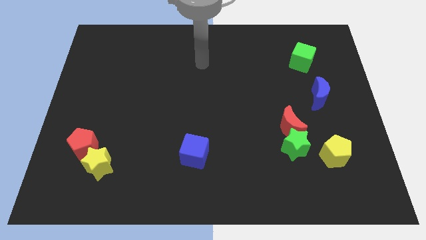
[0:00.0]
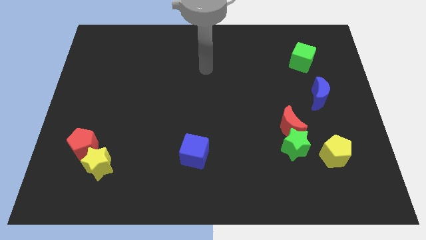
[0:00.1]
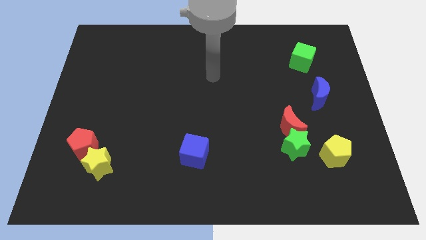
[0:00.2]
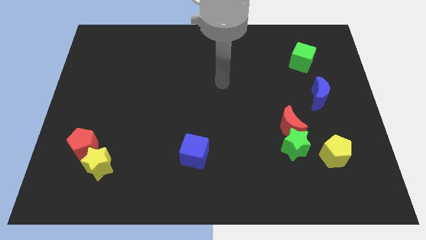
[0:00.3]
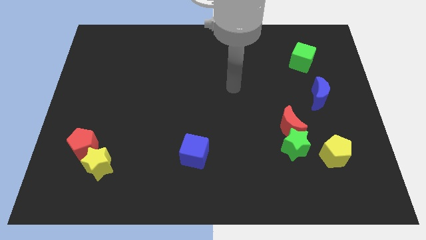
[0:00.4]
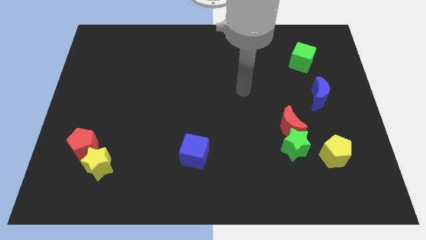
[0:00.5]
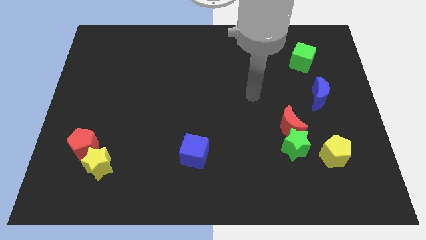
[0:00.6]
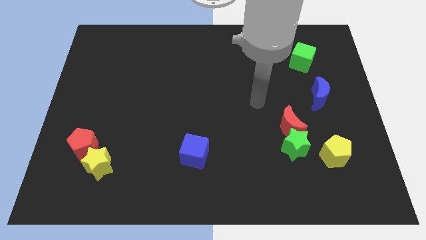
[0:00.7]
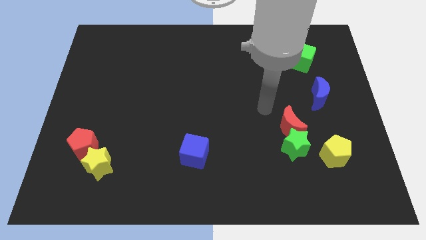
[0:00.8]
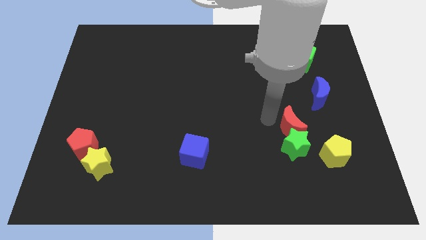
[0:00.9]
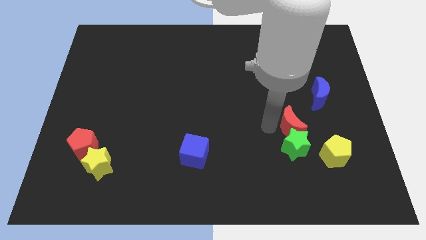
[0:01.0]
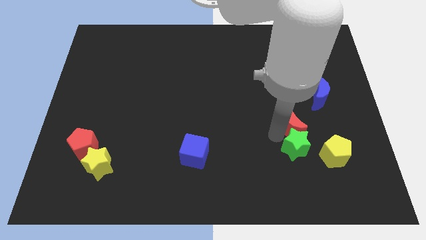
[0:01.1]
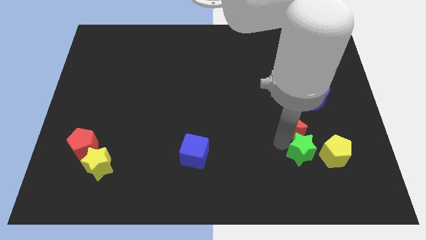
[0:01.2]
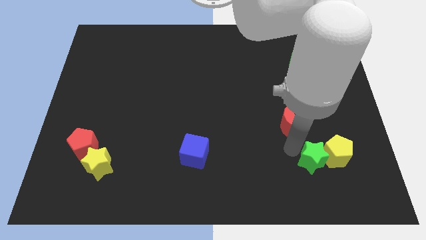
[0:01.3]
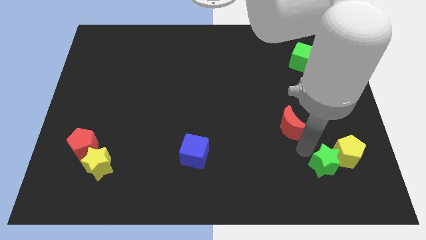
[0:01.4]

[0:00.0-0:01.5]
move the red moon away from the green star

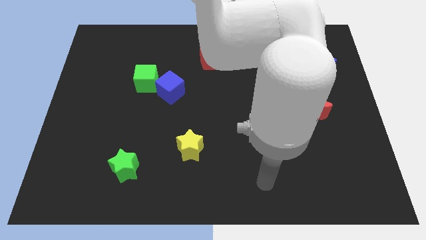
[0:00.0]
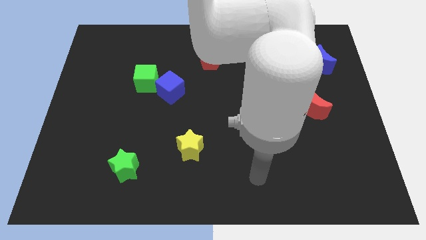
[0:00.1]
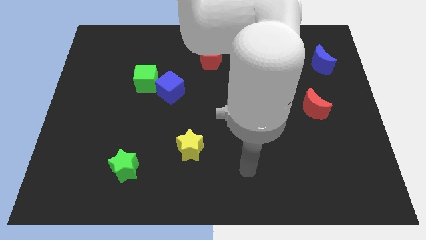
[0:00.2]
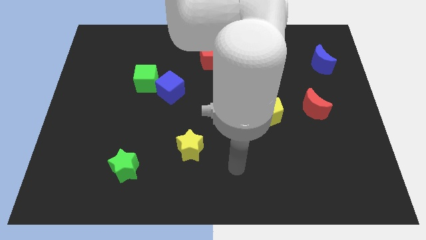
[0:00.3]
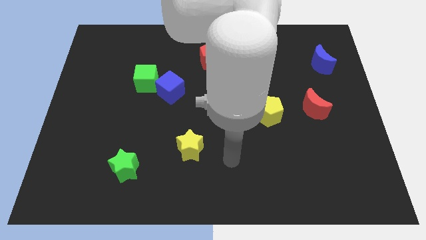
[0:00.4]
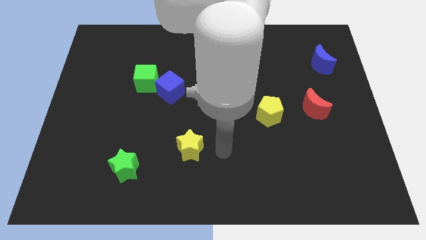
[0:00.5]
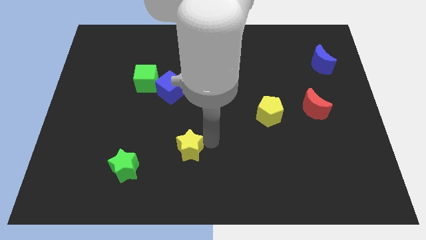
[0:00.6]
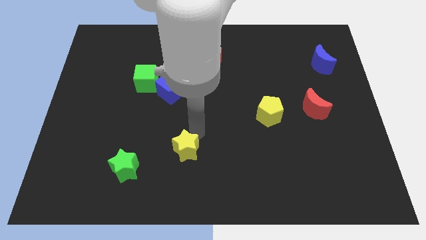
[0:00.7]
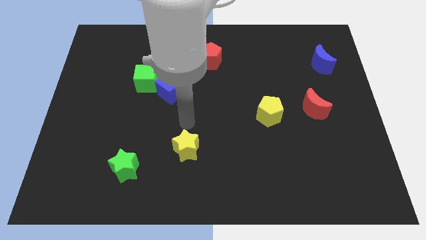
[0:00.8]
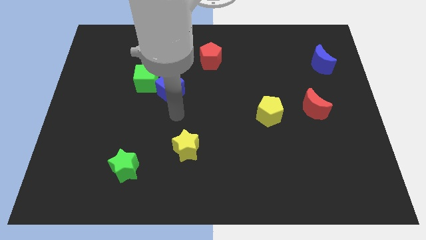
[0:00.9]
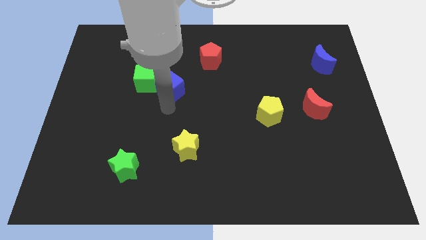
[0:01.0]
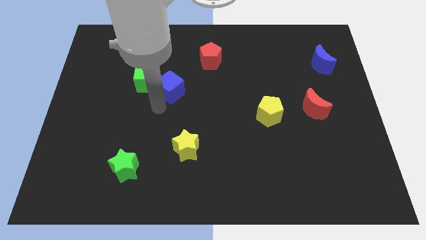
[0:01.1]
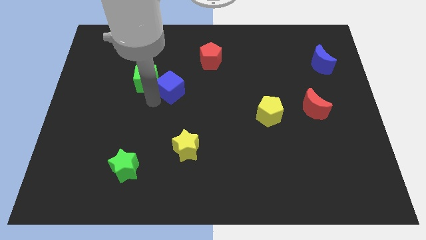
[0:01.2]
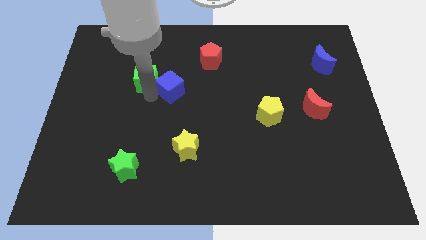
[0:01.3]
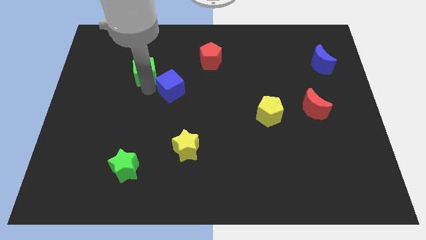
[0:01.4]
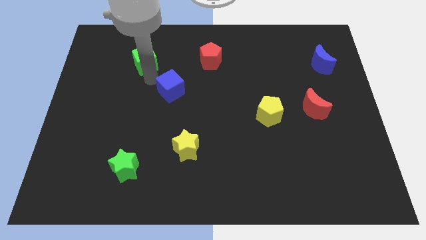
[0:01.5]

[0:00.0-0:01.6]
pull the blue cube apart from the green cube

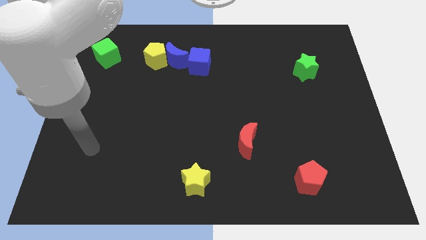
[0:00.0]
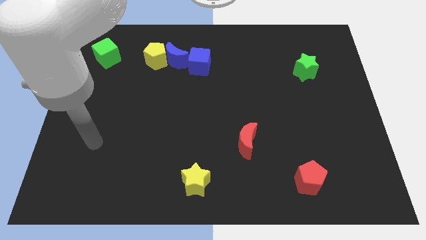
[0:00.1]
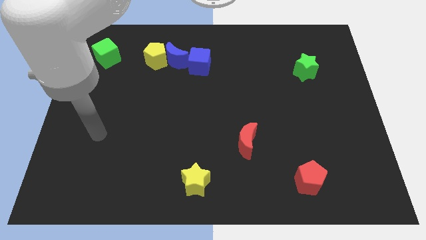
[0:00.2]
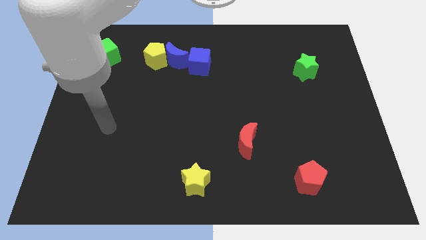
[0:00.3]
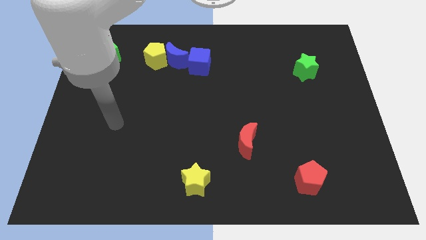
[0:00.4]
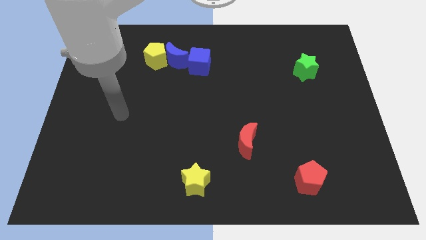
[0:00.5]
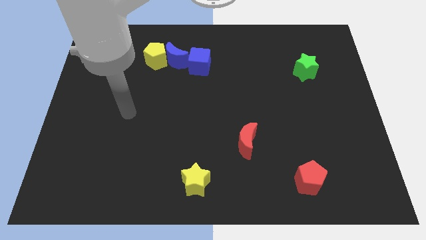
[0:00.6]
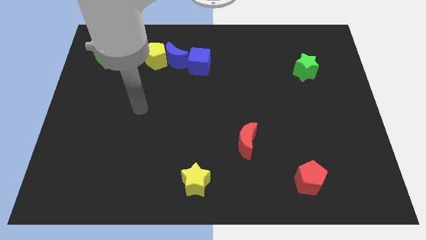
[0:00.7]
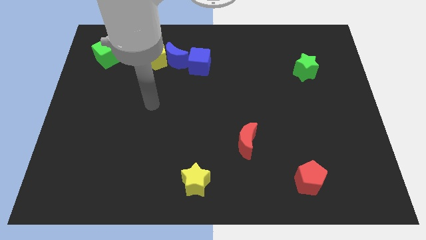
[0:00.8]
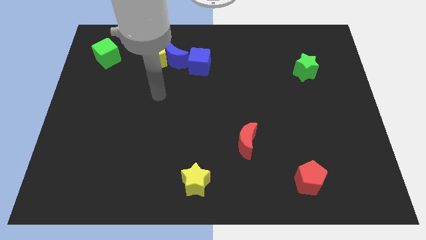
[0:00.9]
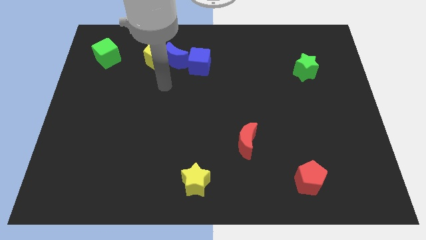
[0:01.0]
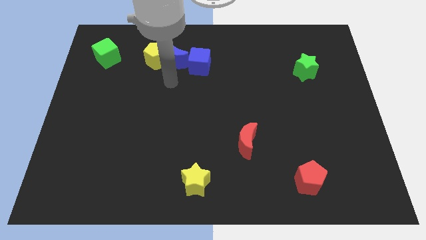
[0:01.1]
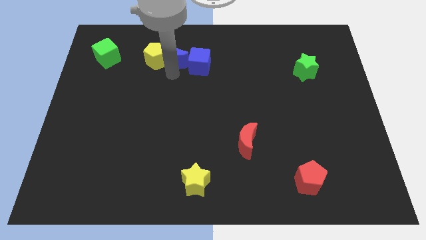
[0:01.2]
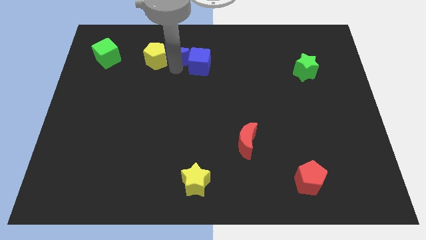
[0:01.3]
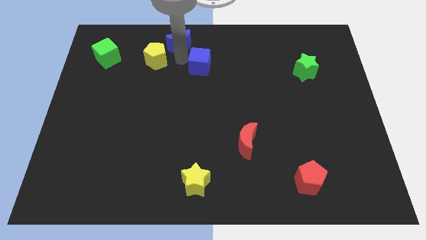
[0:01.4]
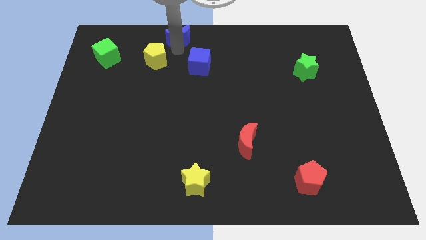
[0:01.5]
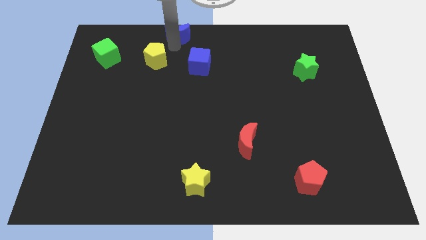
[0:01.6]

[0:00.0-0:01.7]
separate the yellow pentagon from the blue moon

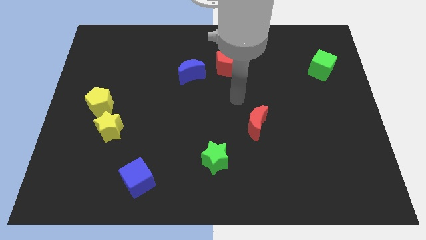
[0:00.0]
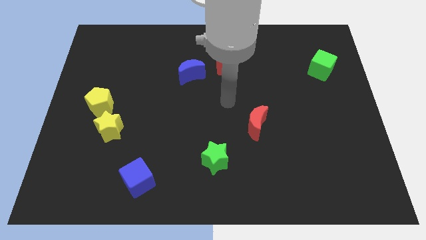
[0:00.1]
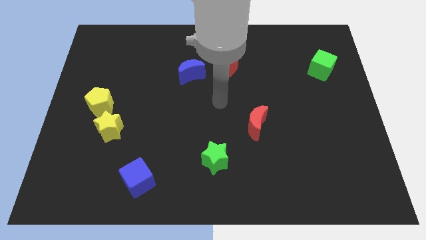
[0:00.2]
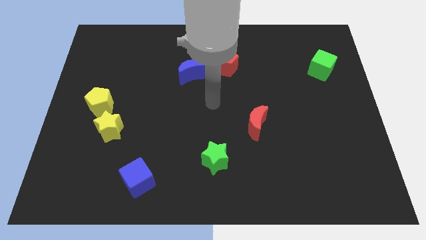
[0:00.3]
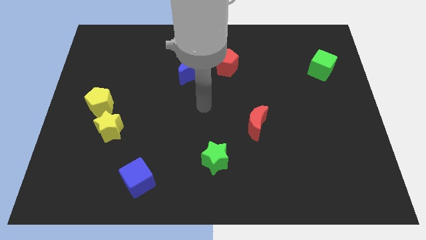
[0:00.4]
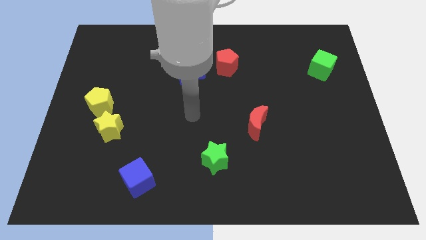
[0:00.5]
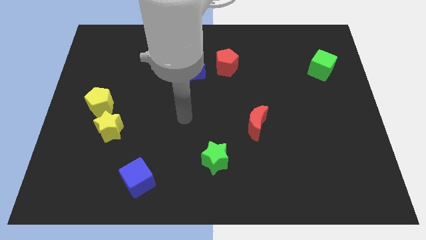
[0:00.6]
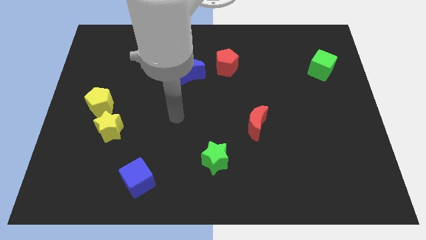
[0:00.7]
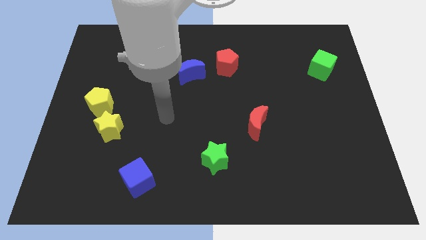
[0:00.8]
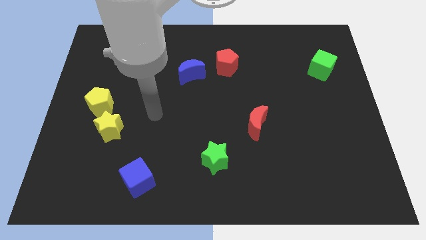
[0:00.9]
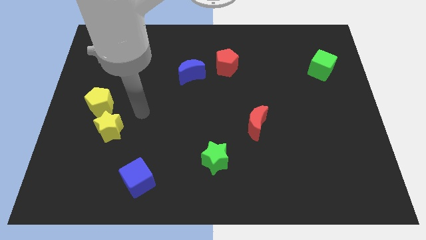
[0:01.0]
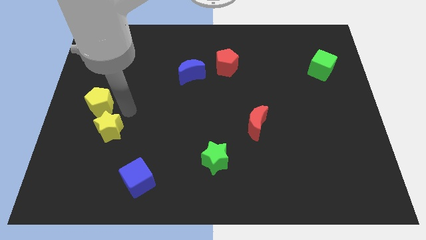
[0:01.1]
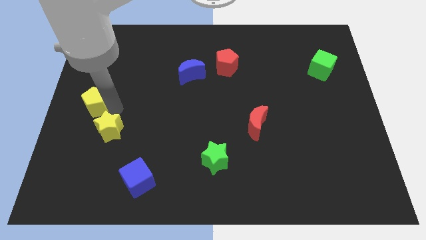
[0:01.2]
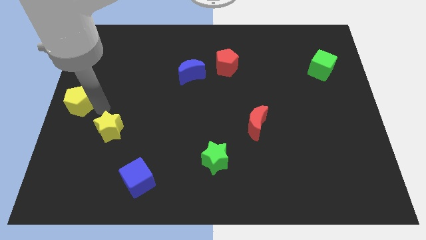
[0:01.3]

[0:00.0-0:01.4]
move the yellow star away from the yellow pentagon

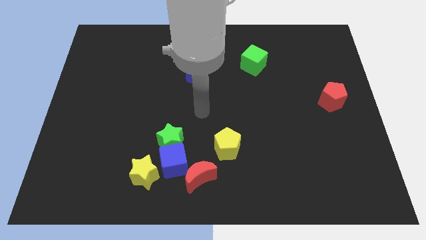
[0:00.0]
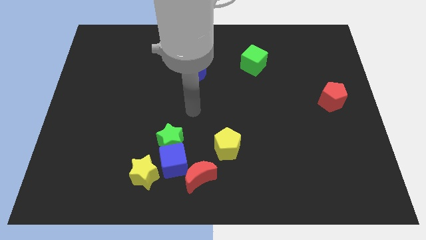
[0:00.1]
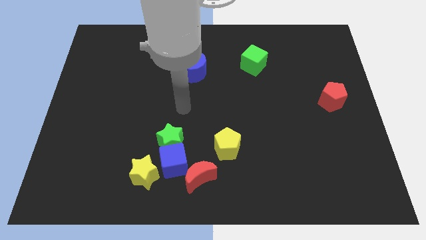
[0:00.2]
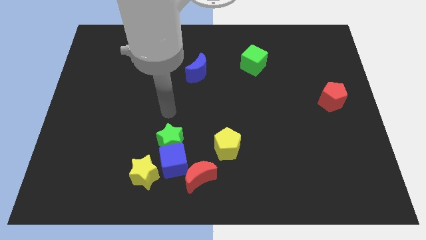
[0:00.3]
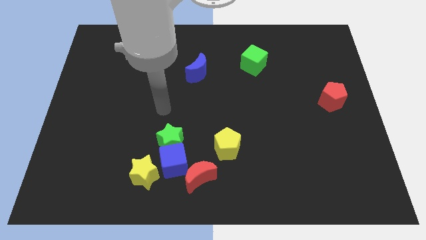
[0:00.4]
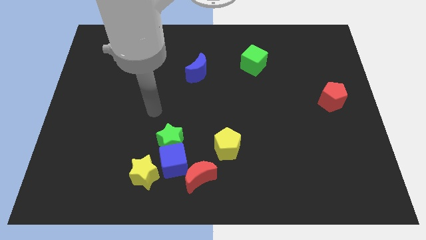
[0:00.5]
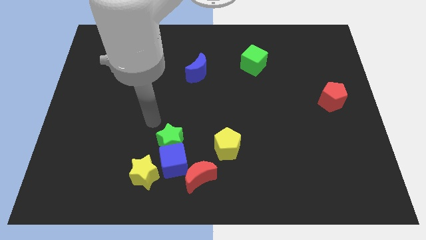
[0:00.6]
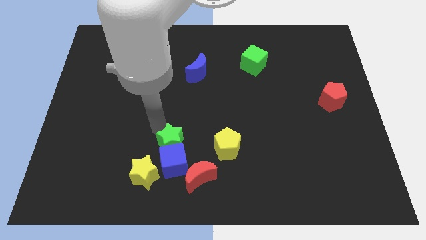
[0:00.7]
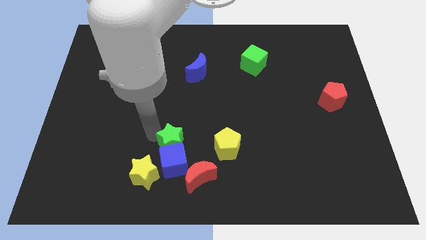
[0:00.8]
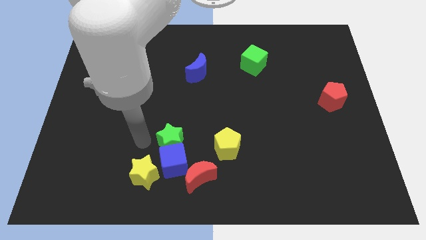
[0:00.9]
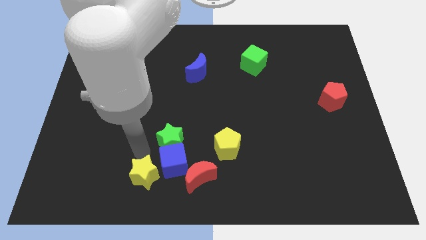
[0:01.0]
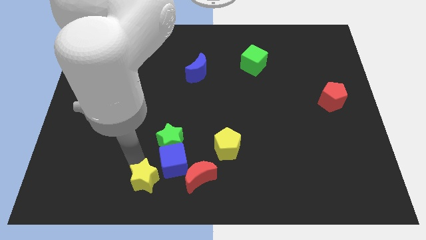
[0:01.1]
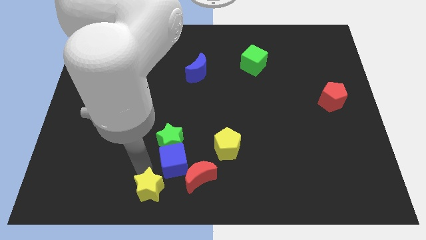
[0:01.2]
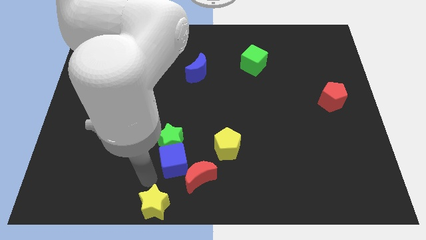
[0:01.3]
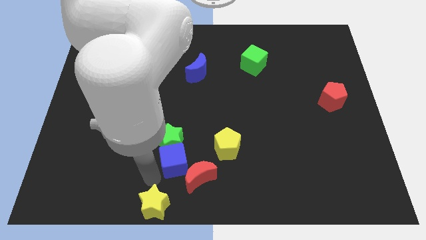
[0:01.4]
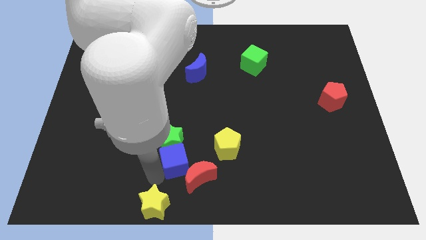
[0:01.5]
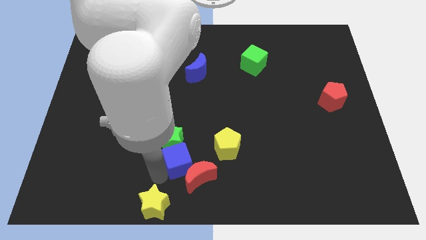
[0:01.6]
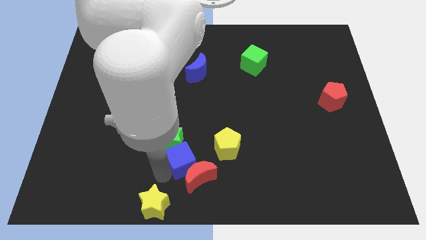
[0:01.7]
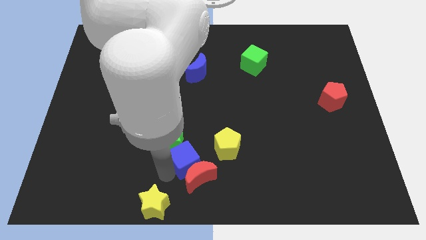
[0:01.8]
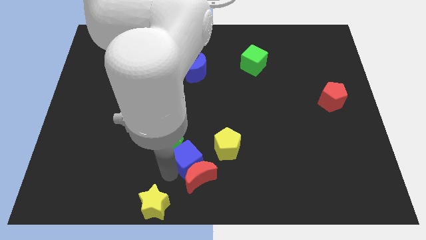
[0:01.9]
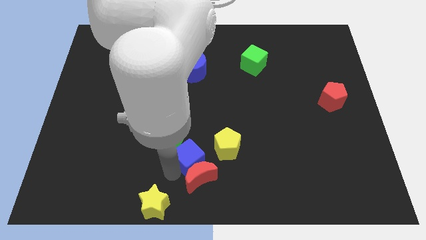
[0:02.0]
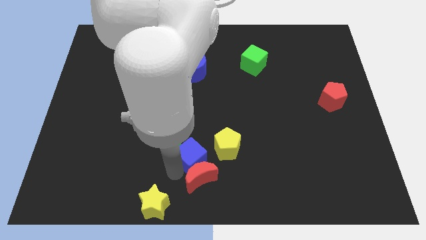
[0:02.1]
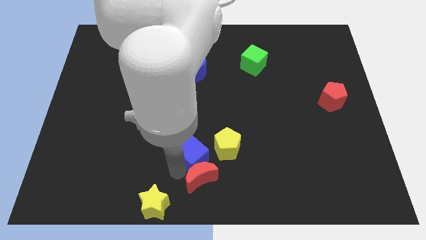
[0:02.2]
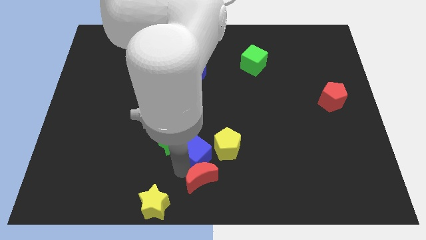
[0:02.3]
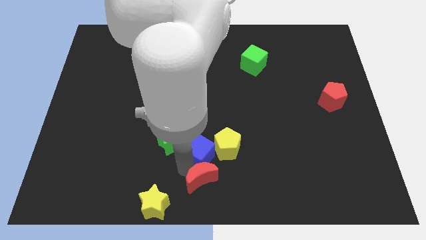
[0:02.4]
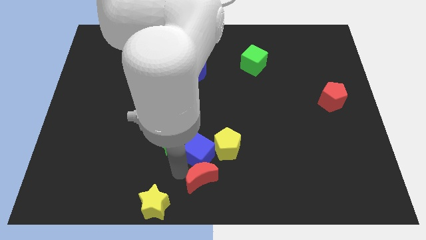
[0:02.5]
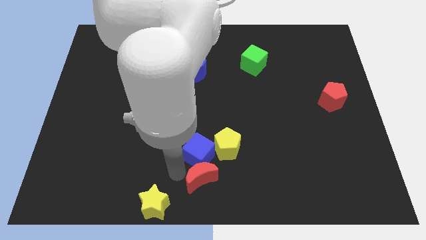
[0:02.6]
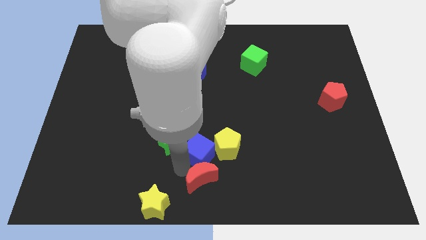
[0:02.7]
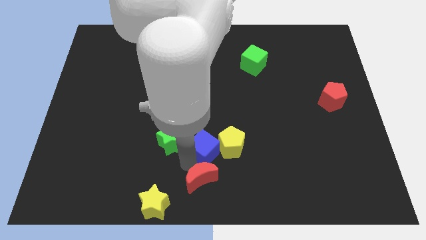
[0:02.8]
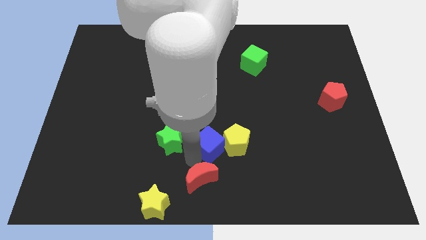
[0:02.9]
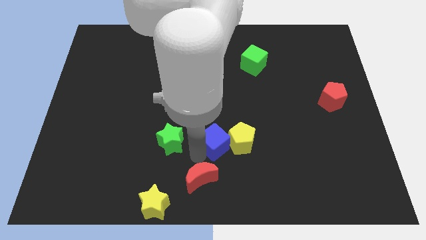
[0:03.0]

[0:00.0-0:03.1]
pull the blue cube apart from the clump

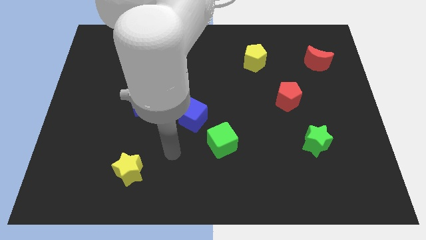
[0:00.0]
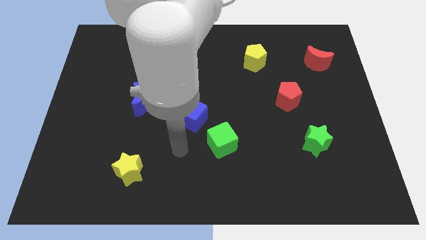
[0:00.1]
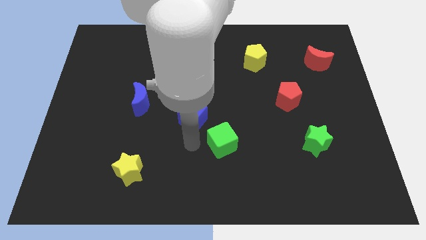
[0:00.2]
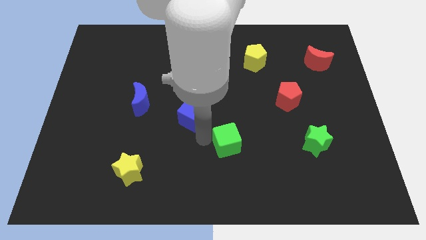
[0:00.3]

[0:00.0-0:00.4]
move the blue cube away from the green cube
